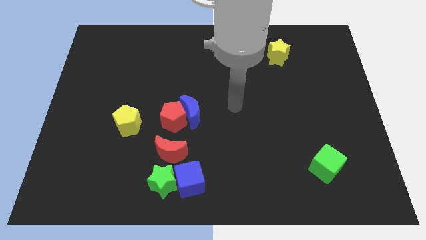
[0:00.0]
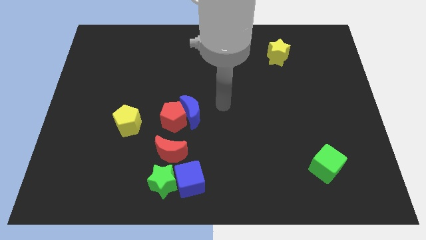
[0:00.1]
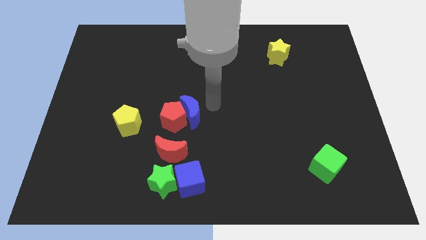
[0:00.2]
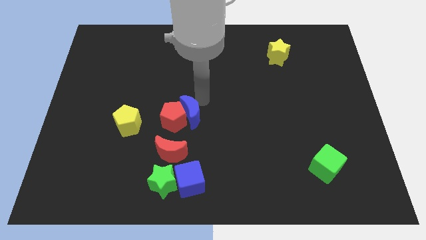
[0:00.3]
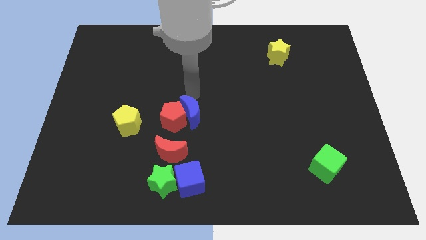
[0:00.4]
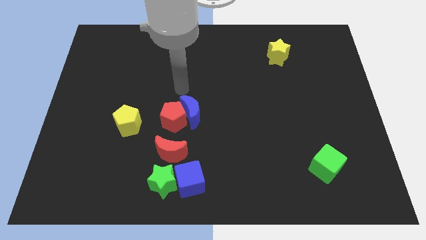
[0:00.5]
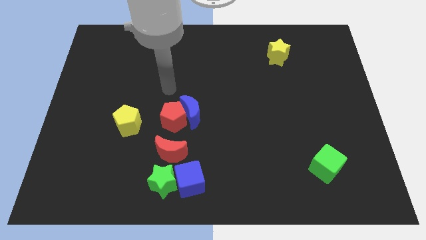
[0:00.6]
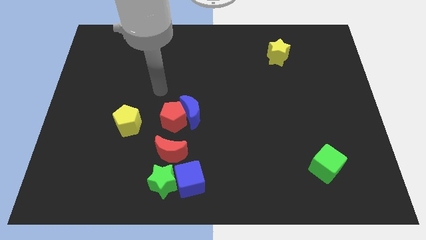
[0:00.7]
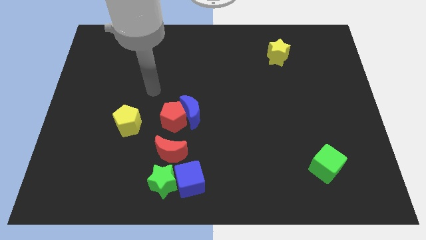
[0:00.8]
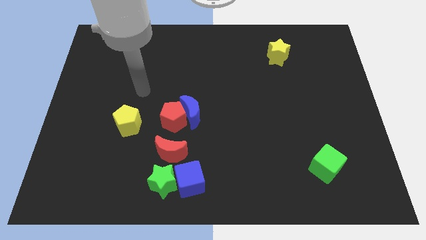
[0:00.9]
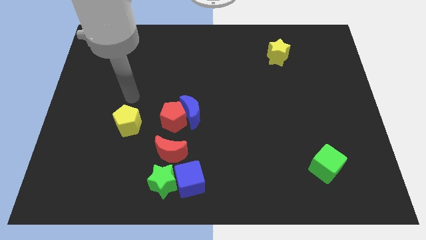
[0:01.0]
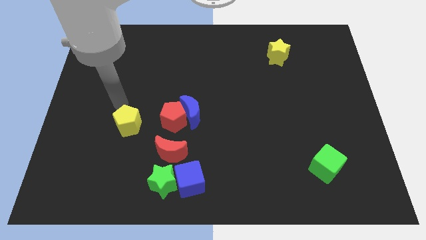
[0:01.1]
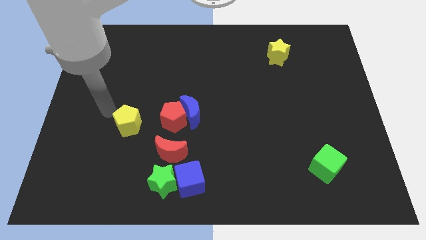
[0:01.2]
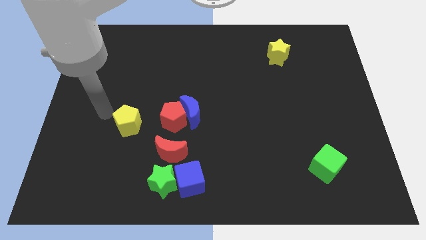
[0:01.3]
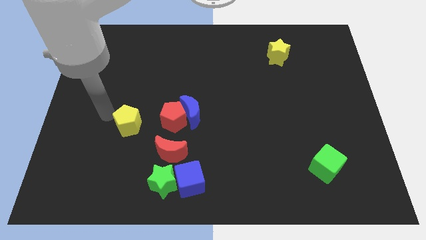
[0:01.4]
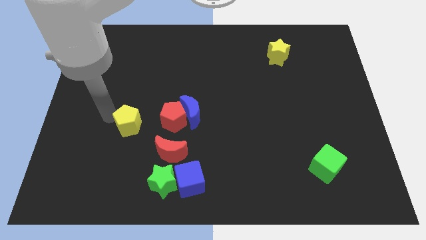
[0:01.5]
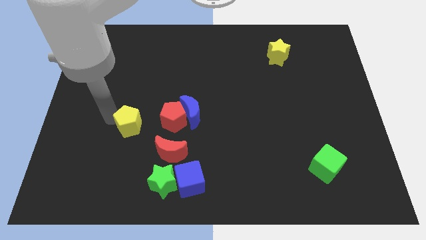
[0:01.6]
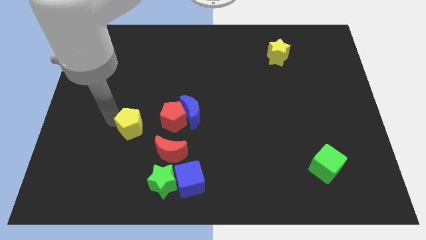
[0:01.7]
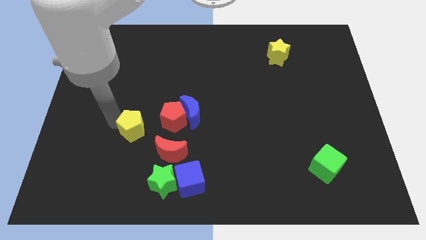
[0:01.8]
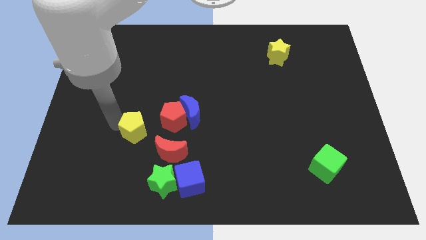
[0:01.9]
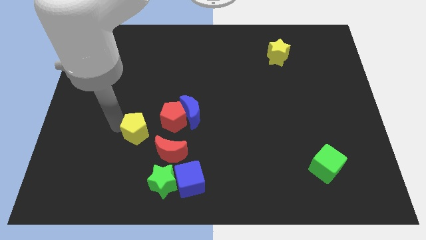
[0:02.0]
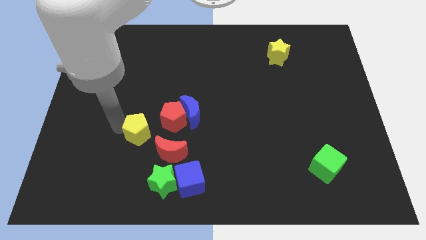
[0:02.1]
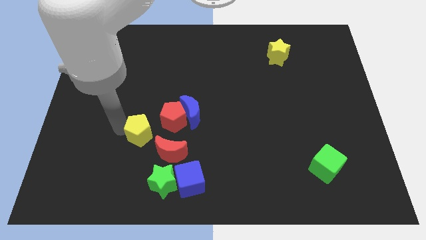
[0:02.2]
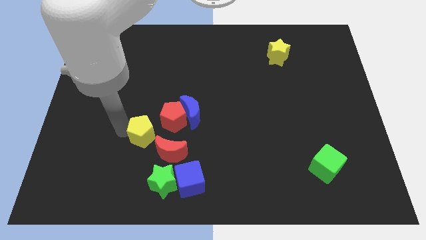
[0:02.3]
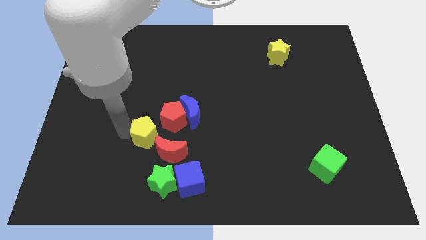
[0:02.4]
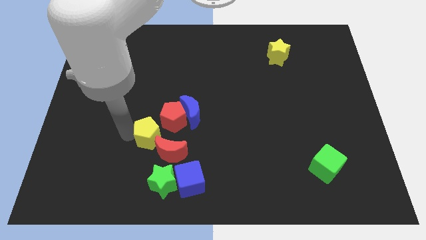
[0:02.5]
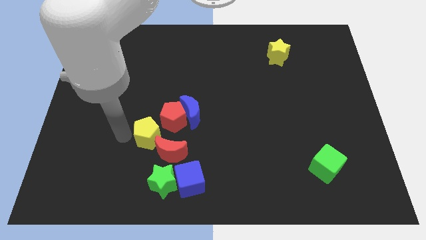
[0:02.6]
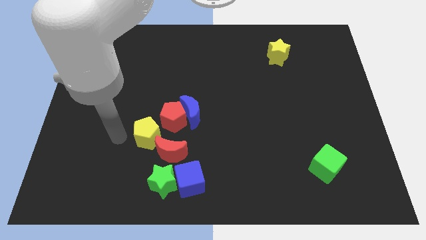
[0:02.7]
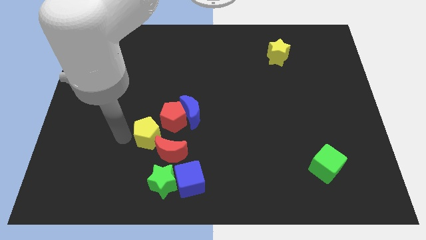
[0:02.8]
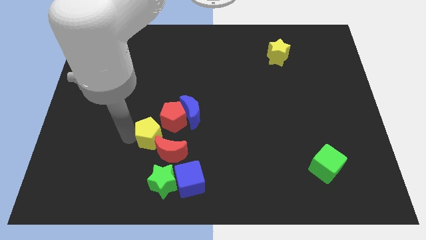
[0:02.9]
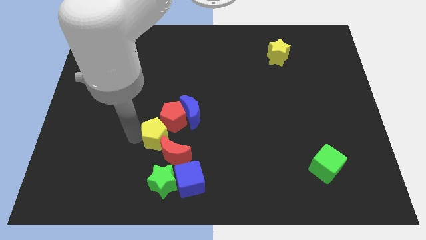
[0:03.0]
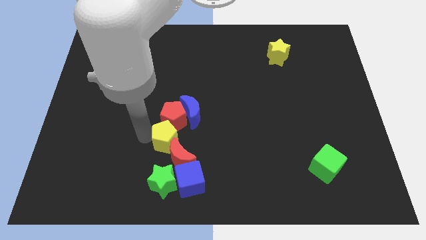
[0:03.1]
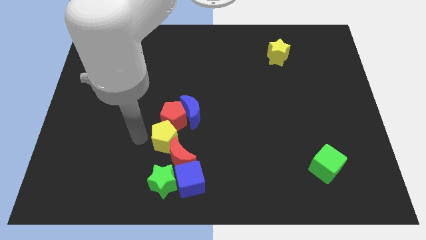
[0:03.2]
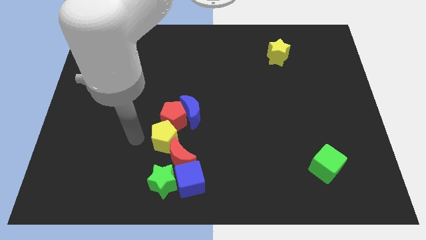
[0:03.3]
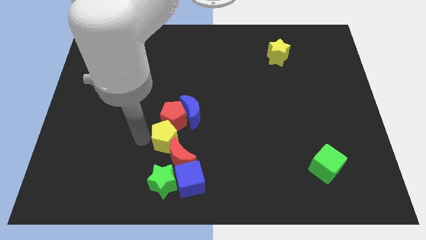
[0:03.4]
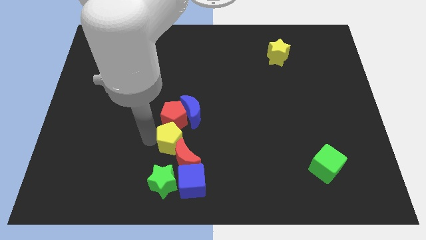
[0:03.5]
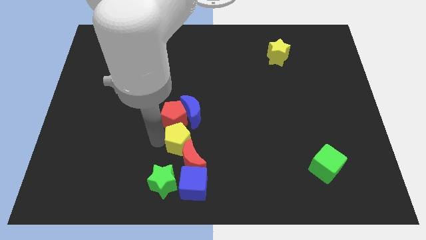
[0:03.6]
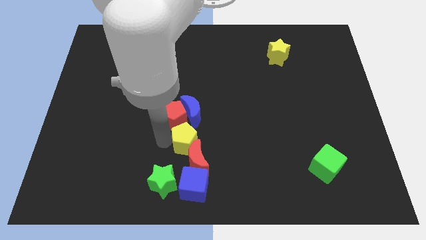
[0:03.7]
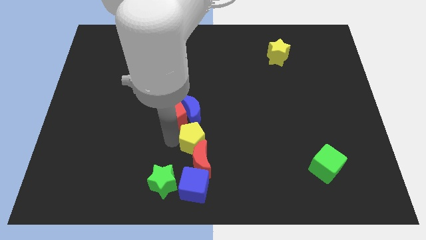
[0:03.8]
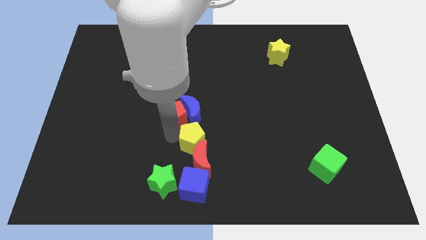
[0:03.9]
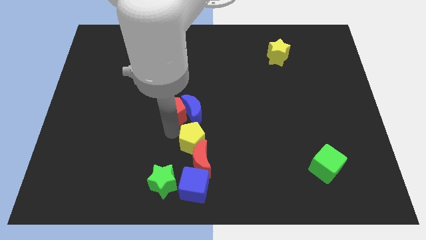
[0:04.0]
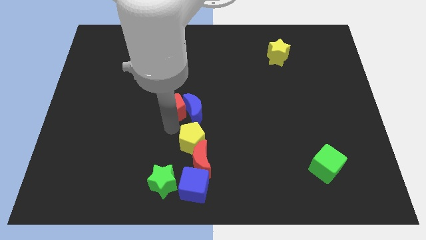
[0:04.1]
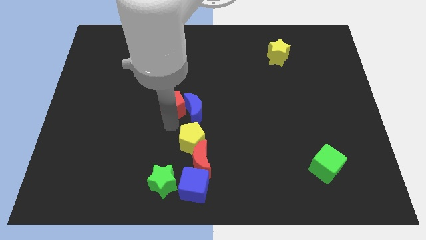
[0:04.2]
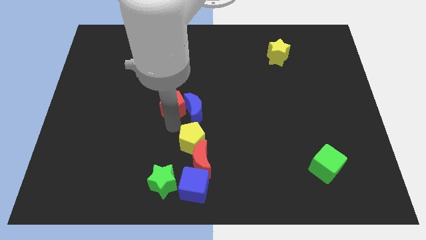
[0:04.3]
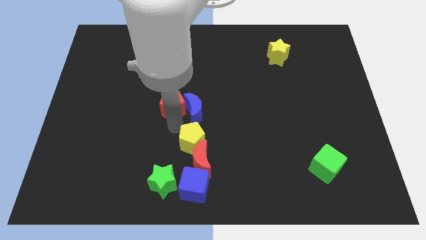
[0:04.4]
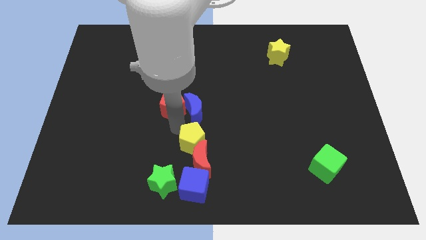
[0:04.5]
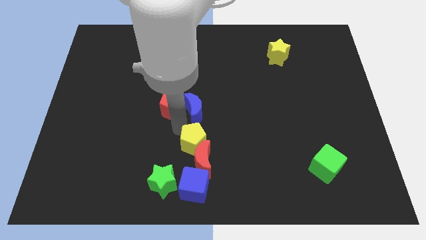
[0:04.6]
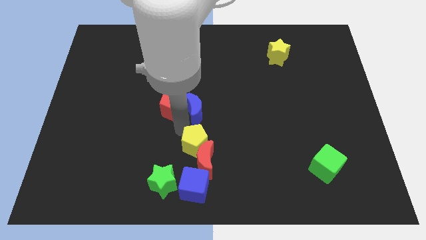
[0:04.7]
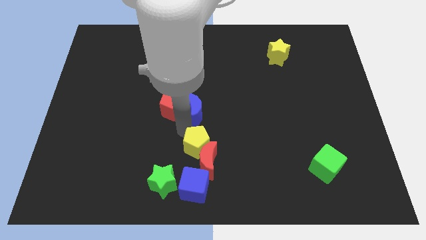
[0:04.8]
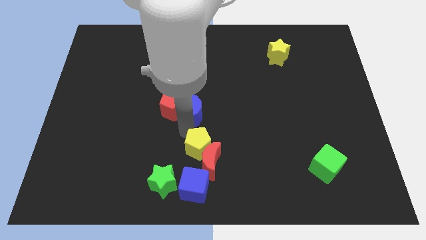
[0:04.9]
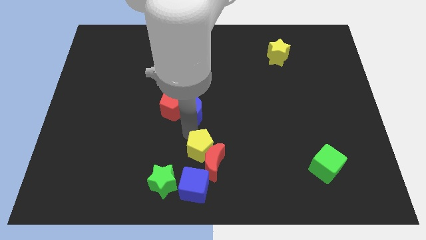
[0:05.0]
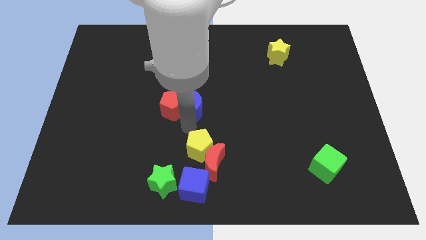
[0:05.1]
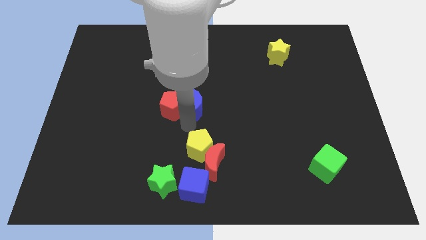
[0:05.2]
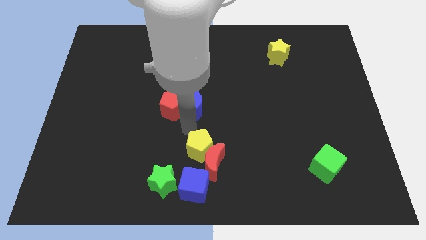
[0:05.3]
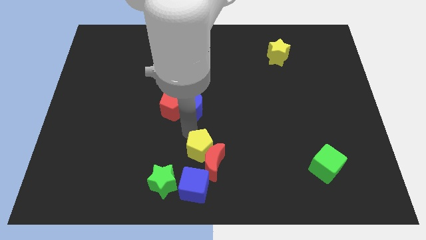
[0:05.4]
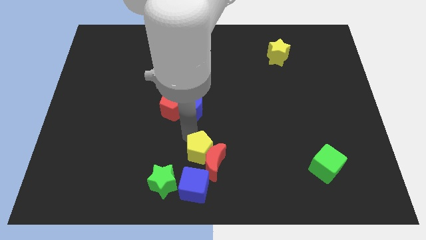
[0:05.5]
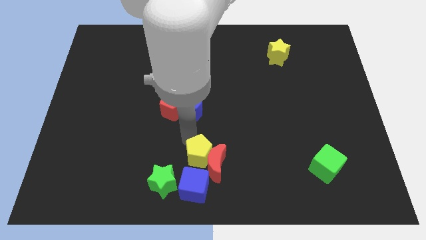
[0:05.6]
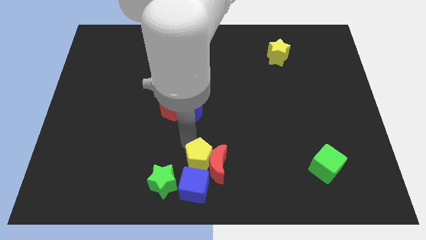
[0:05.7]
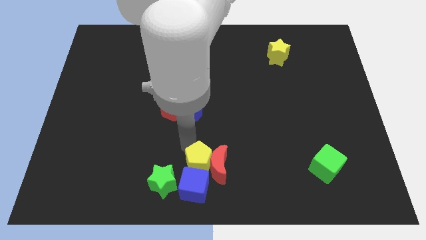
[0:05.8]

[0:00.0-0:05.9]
push the yellow pentagon right of the green star

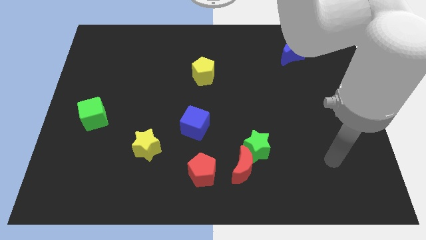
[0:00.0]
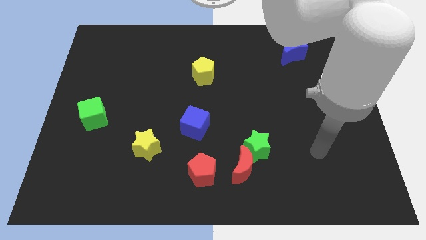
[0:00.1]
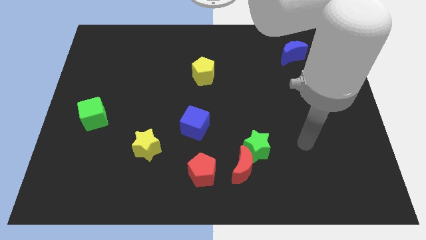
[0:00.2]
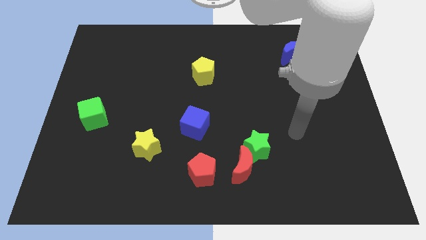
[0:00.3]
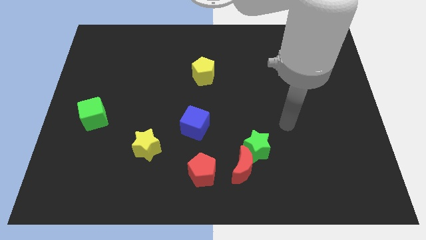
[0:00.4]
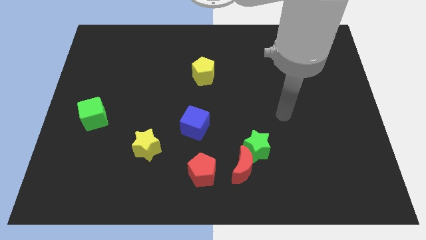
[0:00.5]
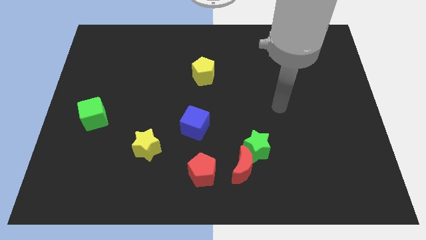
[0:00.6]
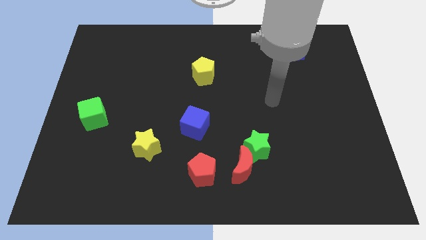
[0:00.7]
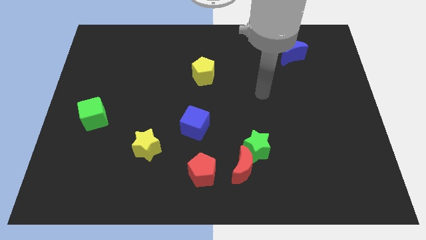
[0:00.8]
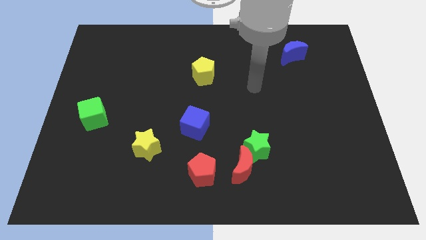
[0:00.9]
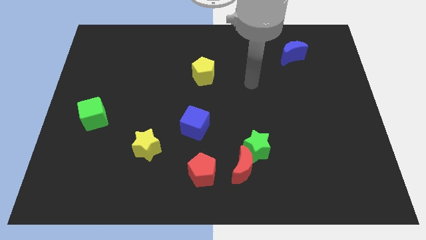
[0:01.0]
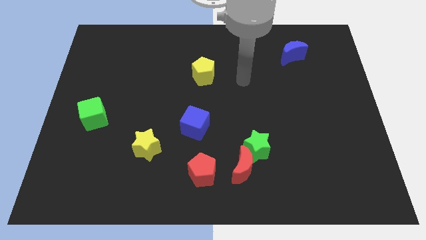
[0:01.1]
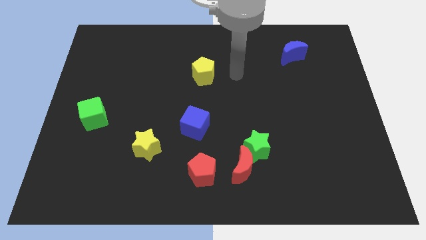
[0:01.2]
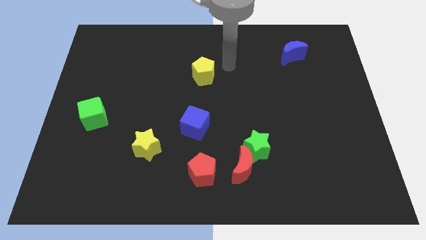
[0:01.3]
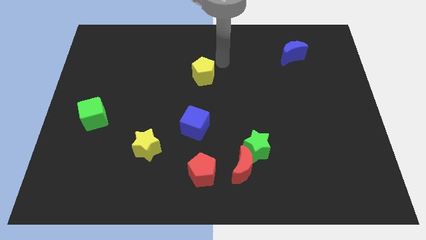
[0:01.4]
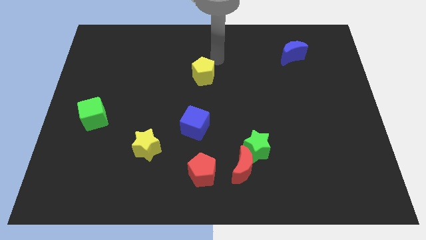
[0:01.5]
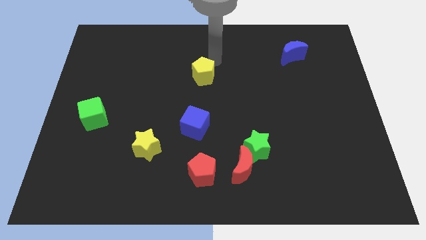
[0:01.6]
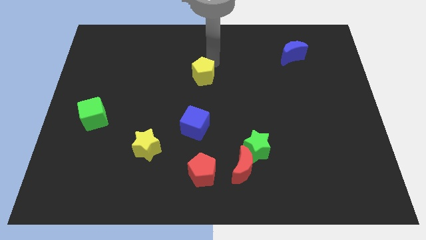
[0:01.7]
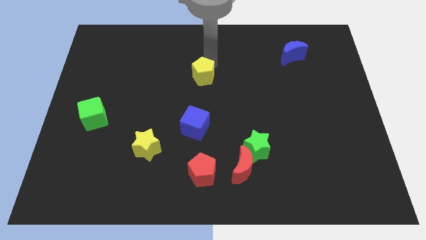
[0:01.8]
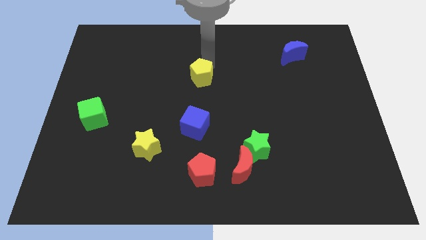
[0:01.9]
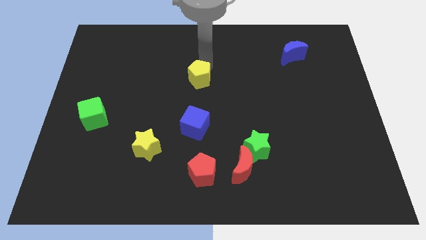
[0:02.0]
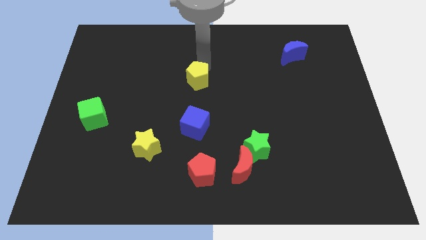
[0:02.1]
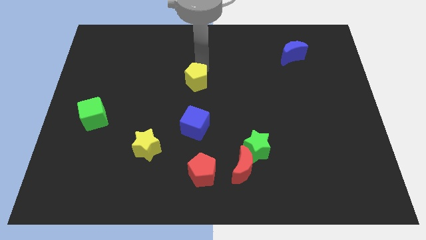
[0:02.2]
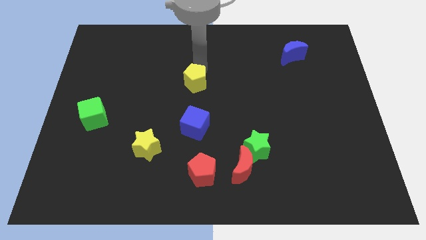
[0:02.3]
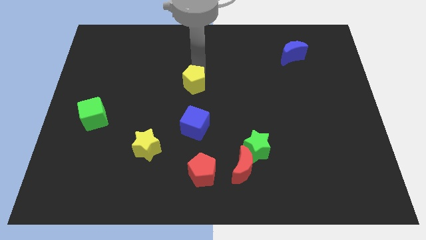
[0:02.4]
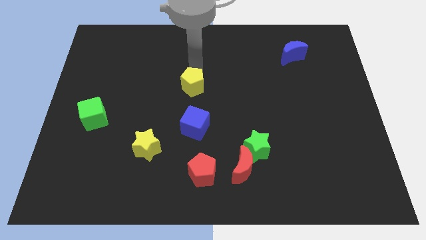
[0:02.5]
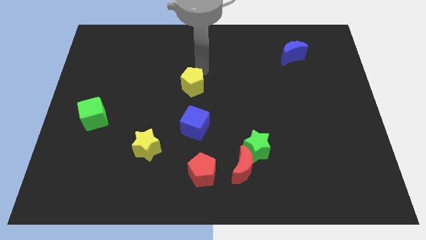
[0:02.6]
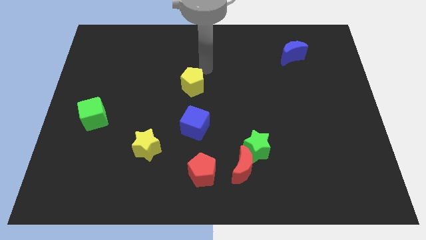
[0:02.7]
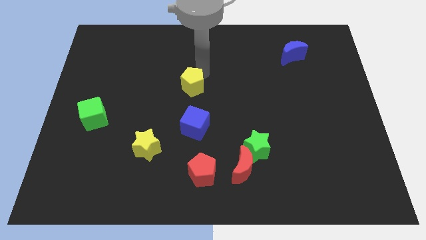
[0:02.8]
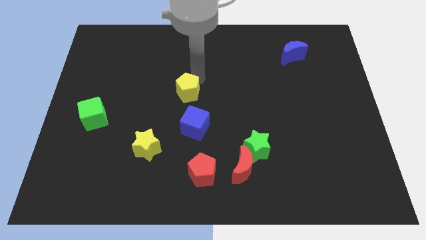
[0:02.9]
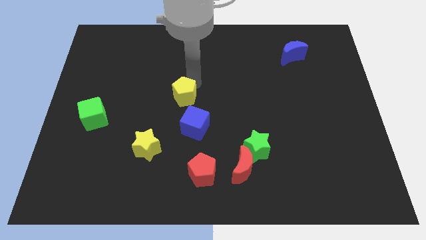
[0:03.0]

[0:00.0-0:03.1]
slide the yellow pentagon to the top left side of the blue cube
